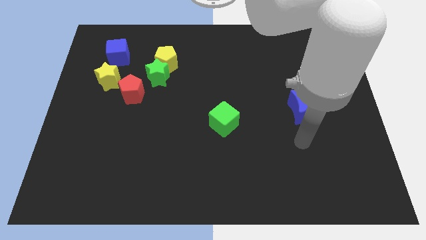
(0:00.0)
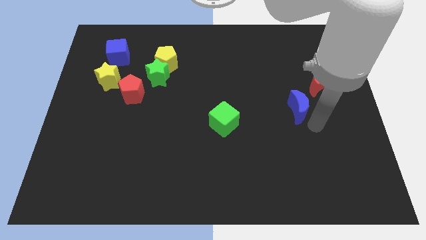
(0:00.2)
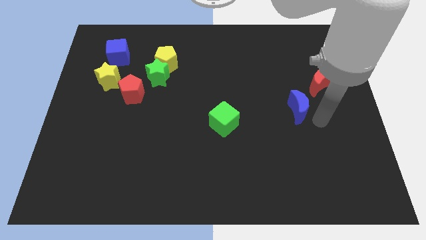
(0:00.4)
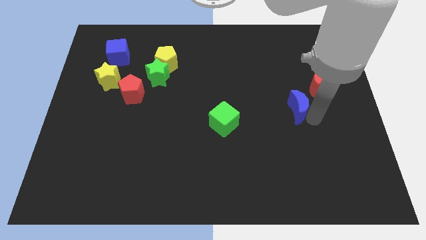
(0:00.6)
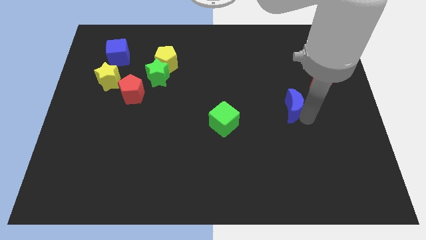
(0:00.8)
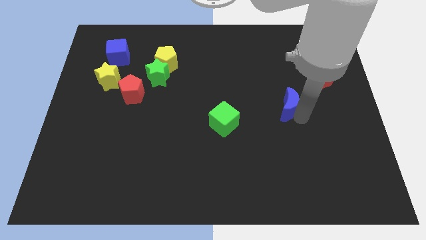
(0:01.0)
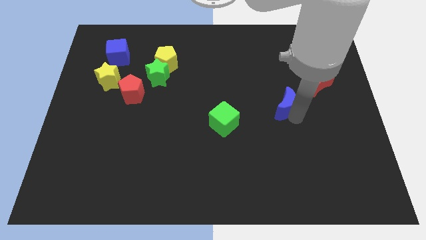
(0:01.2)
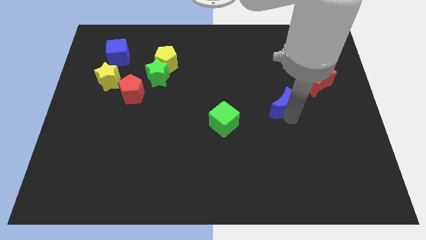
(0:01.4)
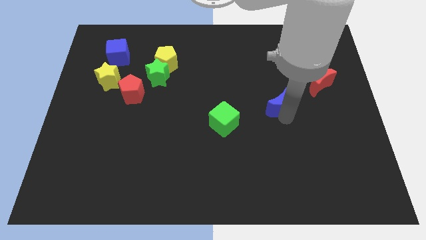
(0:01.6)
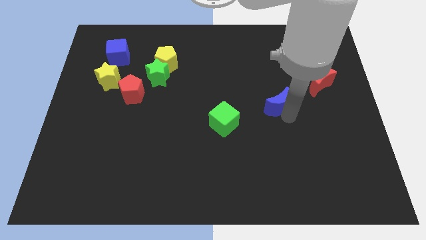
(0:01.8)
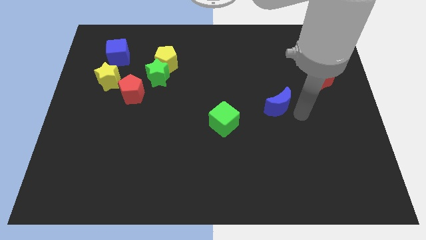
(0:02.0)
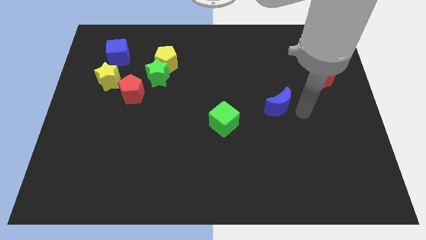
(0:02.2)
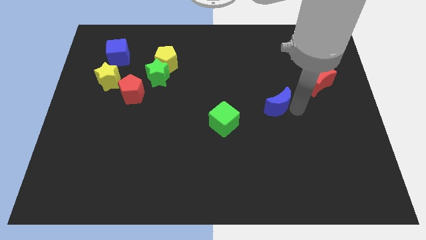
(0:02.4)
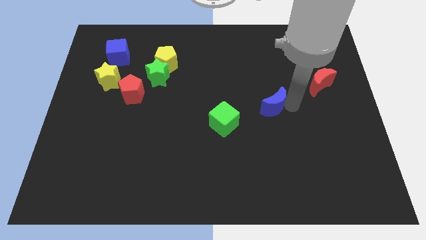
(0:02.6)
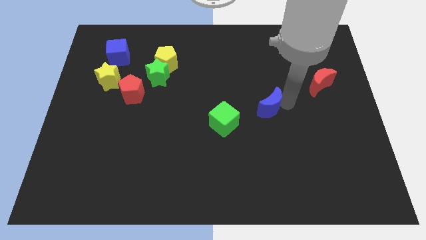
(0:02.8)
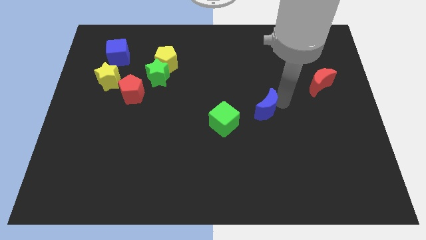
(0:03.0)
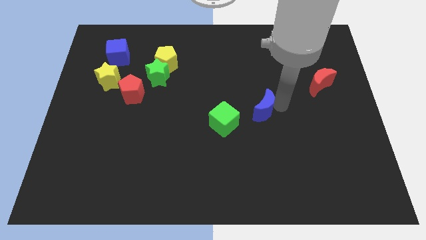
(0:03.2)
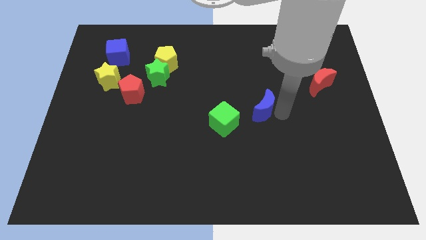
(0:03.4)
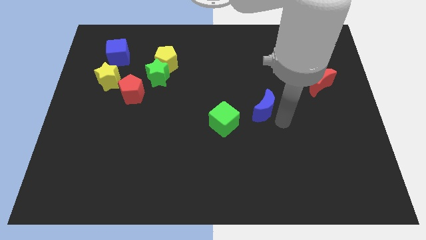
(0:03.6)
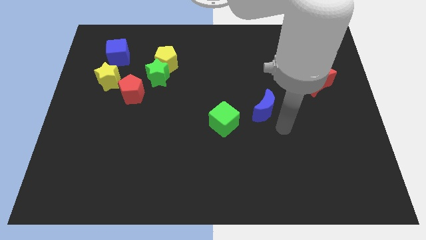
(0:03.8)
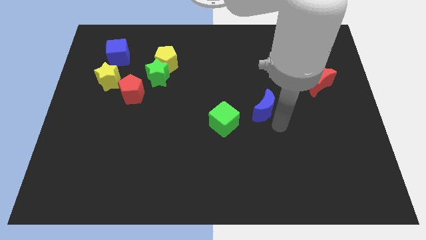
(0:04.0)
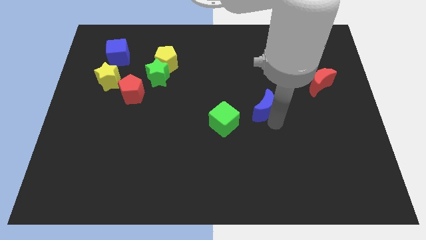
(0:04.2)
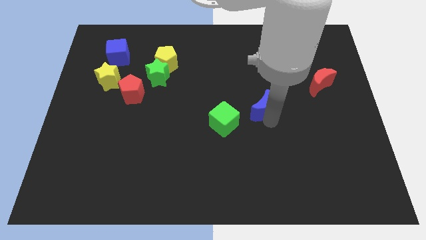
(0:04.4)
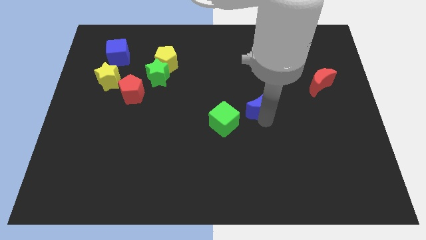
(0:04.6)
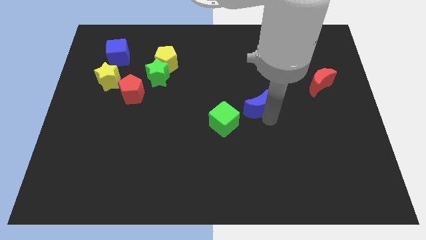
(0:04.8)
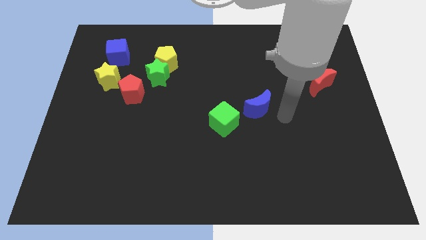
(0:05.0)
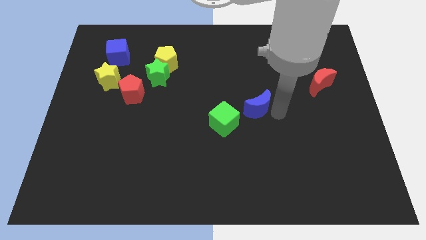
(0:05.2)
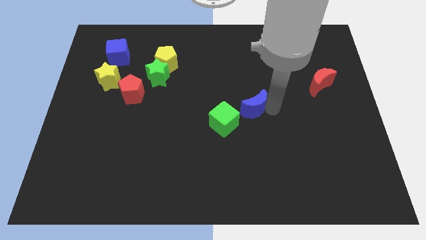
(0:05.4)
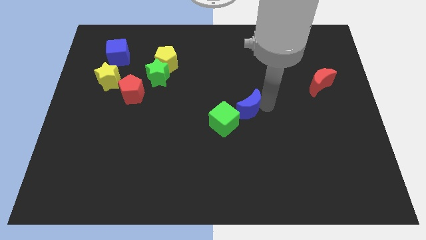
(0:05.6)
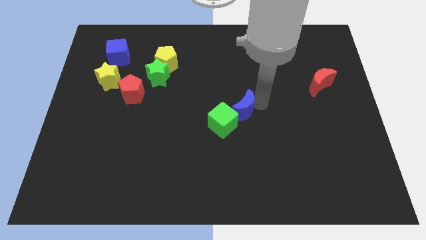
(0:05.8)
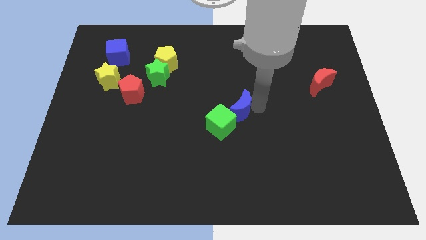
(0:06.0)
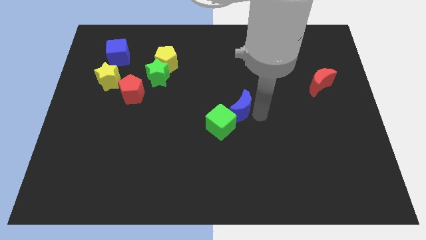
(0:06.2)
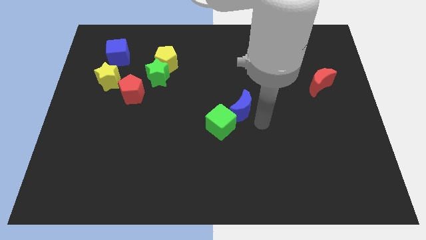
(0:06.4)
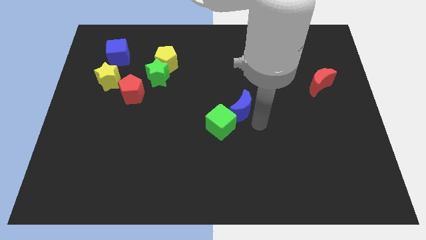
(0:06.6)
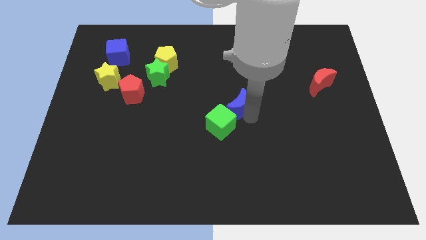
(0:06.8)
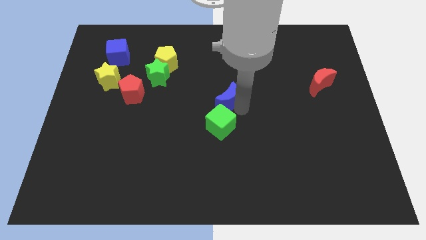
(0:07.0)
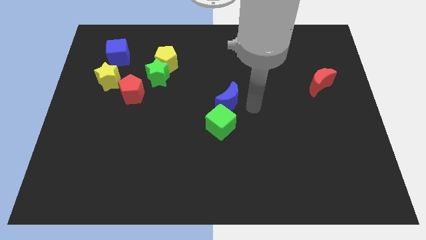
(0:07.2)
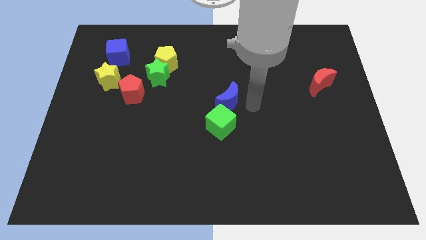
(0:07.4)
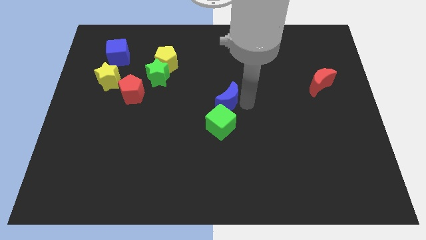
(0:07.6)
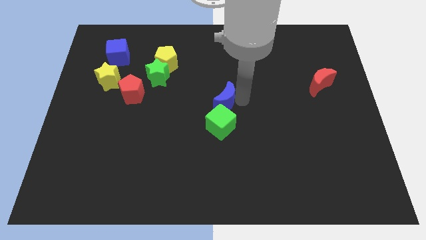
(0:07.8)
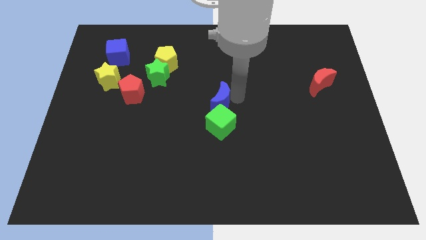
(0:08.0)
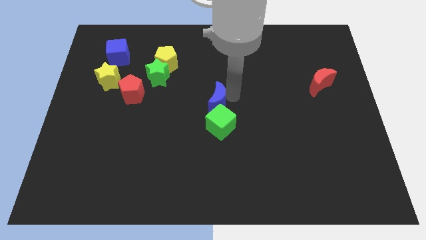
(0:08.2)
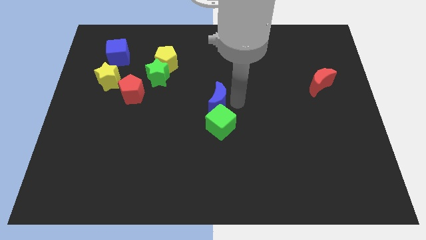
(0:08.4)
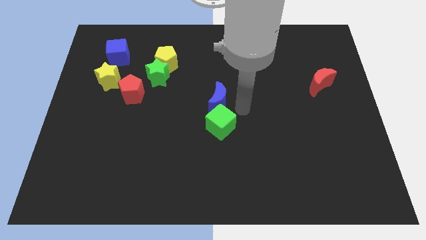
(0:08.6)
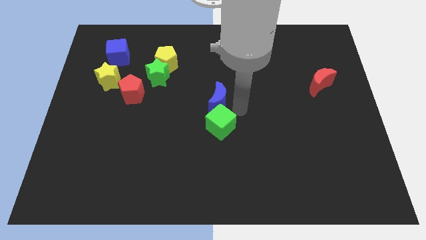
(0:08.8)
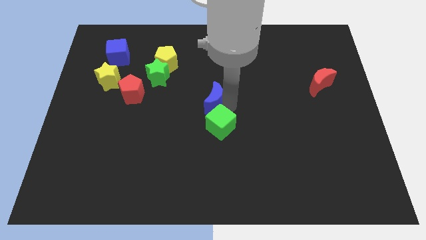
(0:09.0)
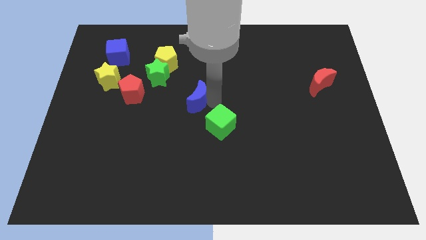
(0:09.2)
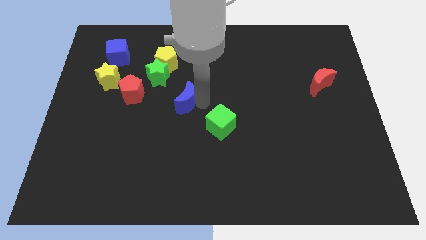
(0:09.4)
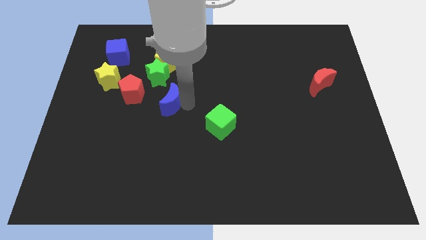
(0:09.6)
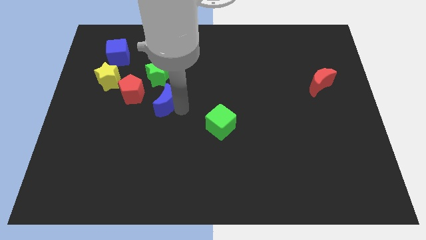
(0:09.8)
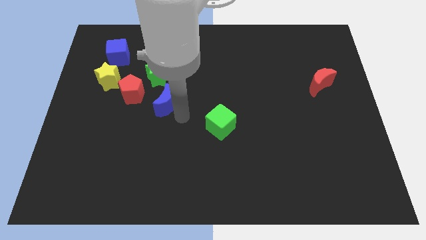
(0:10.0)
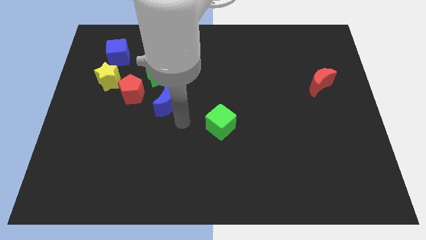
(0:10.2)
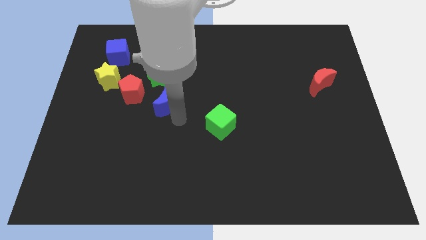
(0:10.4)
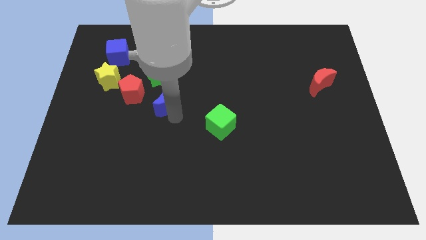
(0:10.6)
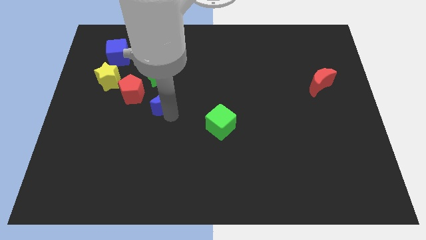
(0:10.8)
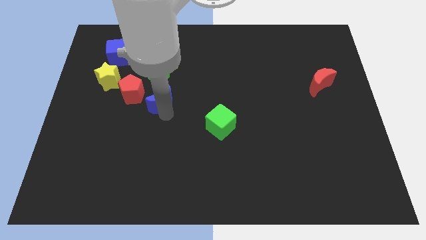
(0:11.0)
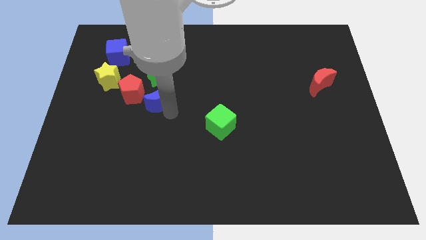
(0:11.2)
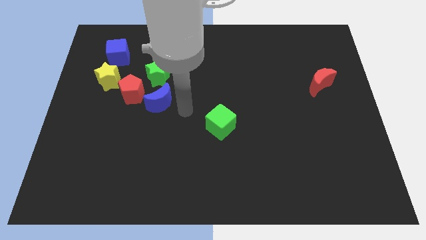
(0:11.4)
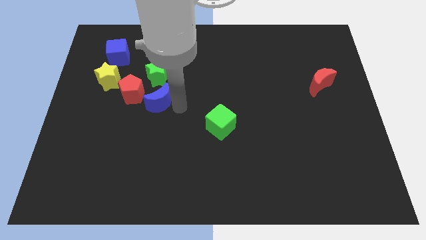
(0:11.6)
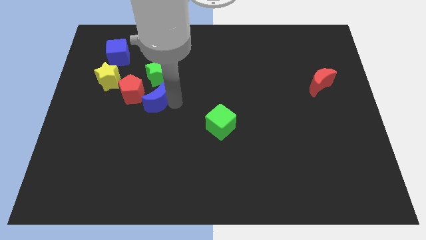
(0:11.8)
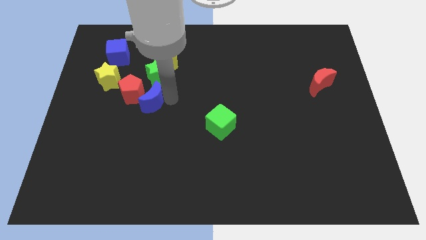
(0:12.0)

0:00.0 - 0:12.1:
push the blue moon towards the red pentagon

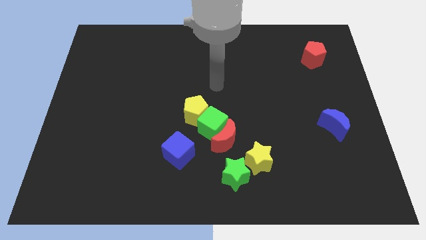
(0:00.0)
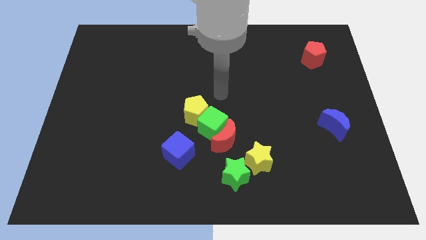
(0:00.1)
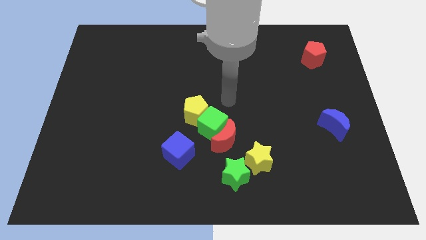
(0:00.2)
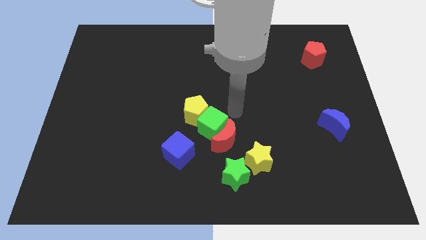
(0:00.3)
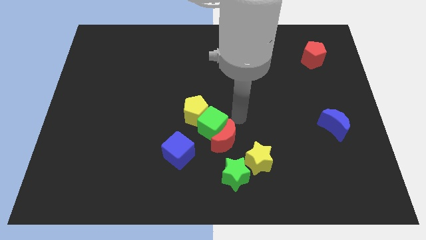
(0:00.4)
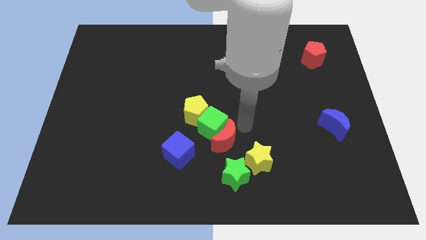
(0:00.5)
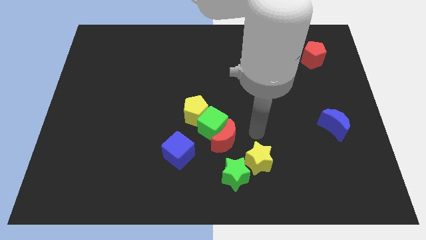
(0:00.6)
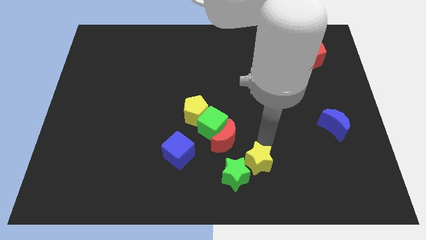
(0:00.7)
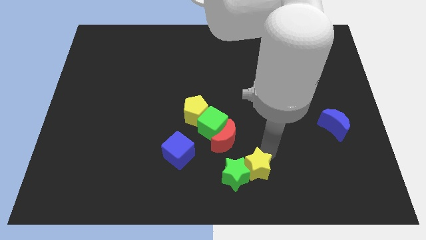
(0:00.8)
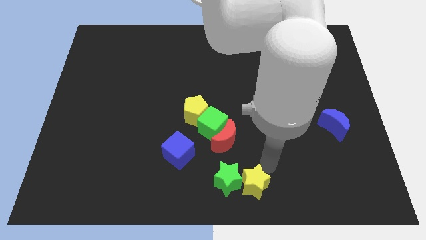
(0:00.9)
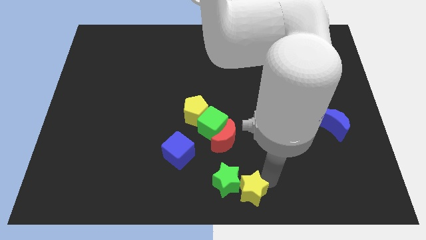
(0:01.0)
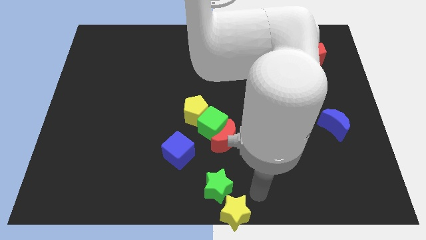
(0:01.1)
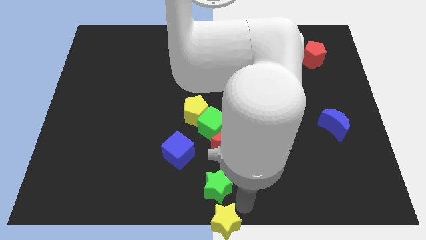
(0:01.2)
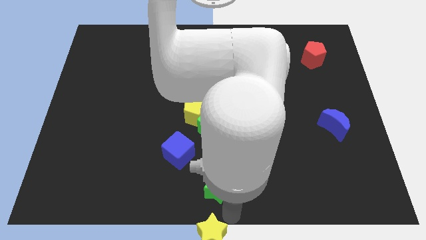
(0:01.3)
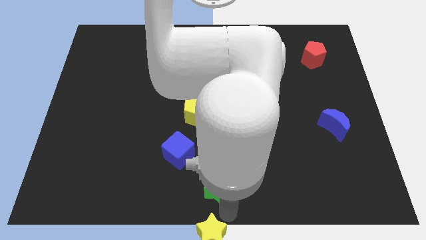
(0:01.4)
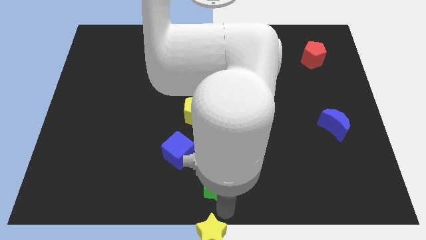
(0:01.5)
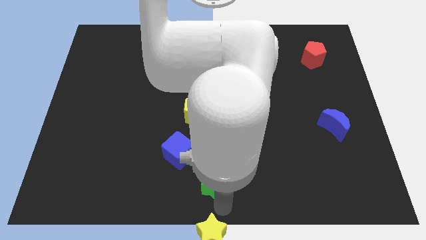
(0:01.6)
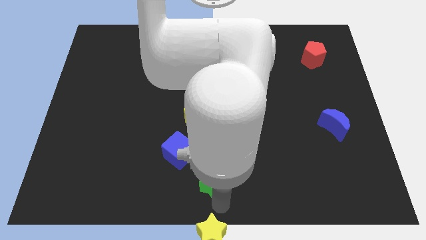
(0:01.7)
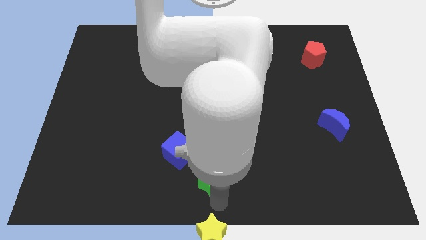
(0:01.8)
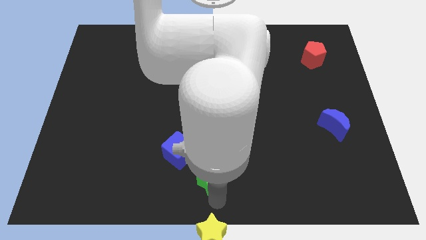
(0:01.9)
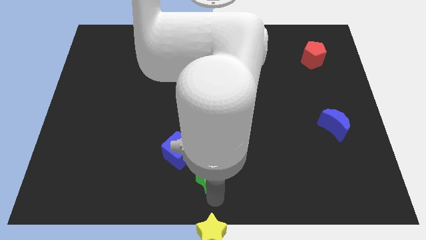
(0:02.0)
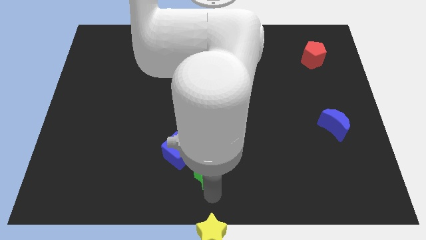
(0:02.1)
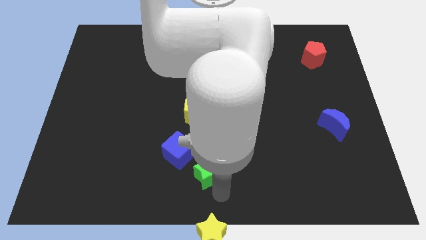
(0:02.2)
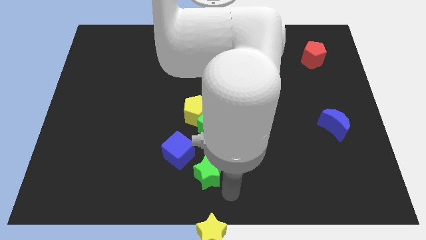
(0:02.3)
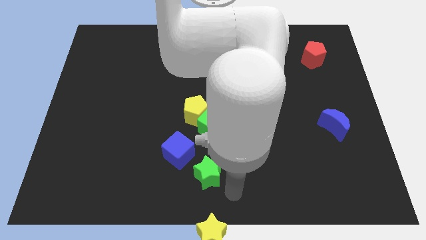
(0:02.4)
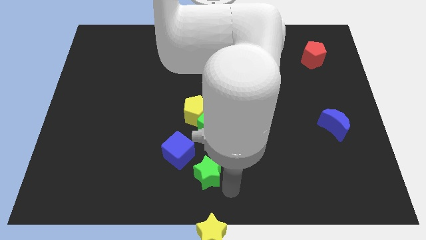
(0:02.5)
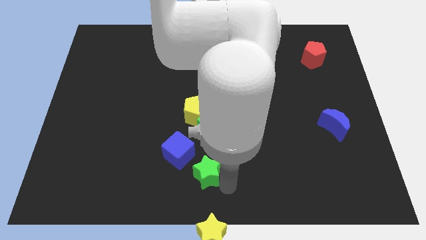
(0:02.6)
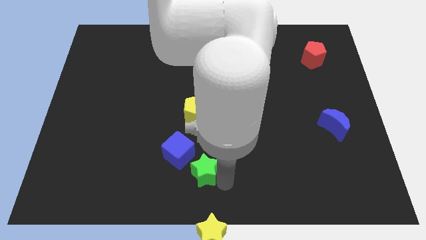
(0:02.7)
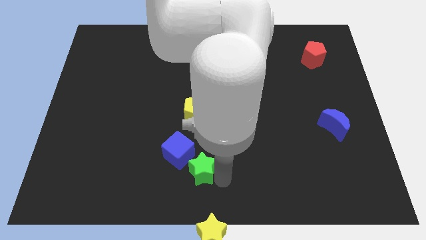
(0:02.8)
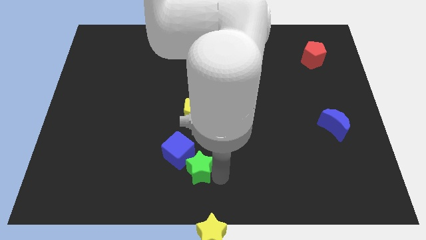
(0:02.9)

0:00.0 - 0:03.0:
move the green star to the blue cube
